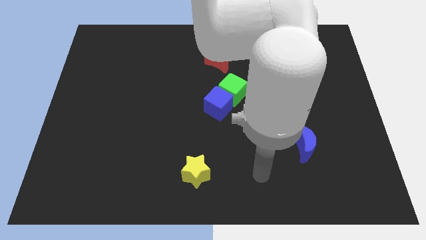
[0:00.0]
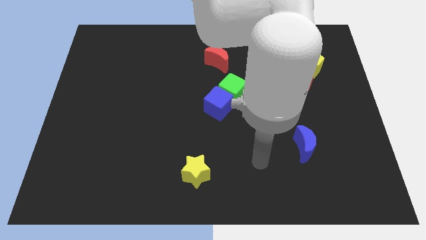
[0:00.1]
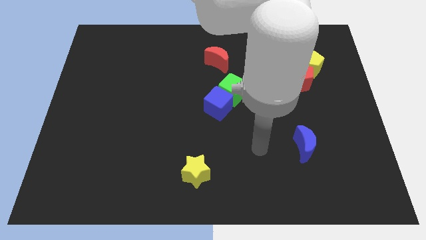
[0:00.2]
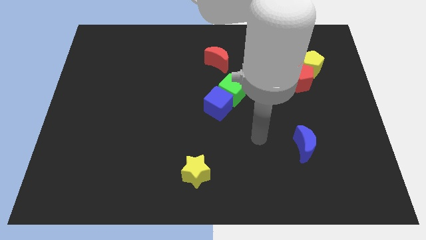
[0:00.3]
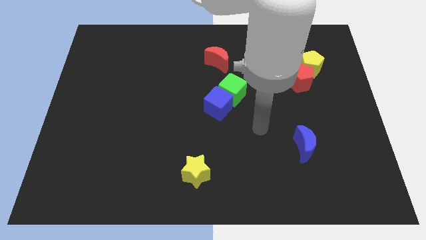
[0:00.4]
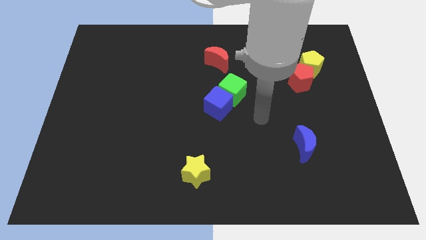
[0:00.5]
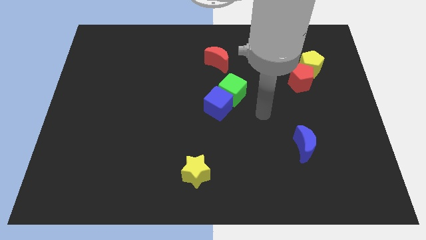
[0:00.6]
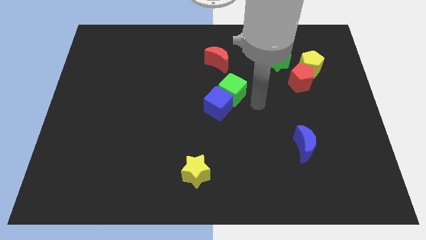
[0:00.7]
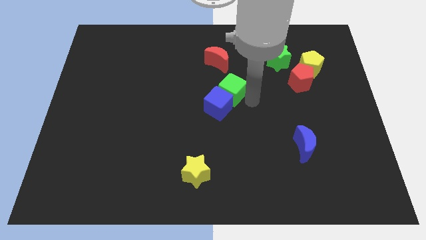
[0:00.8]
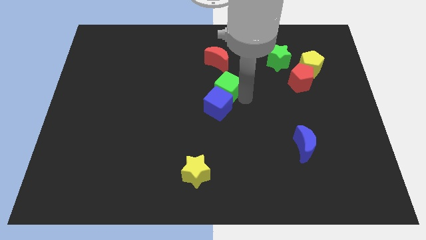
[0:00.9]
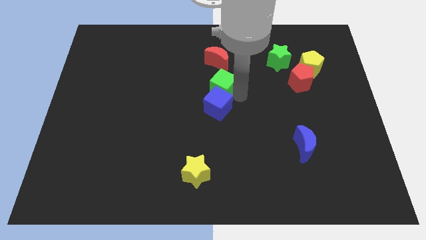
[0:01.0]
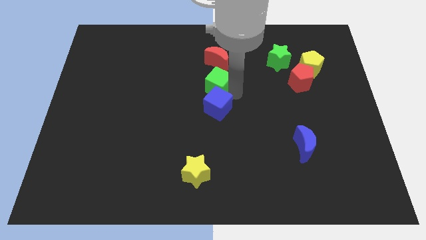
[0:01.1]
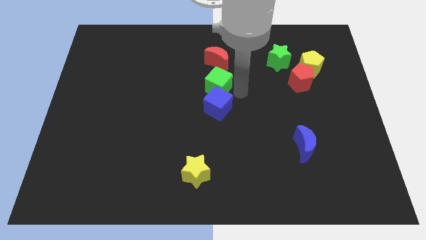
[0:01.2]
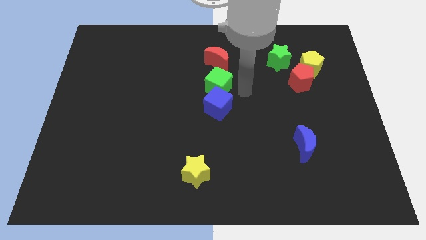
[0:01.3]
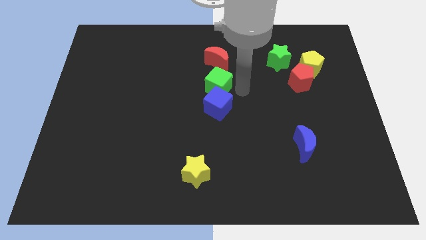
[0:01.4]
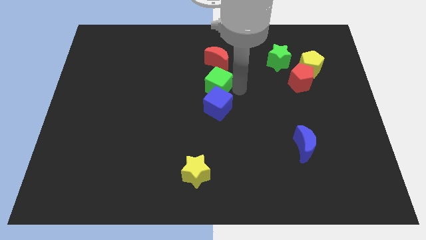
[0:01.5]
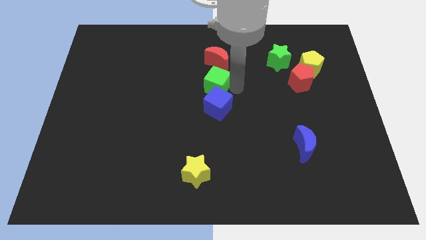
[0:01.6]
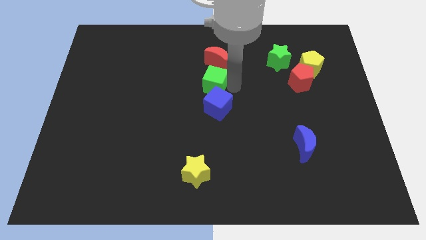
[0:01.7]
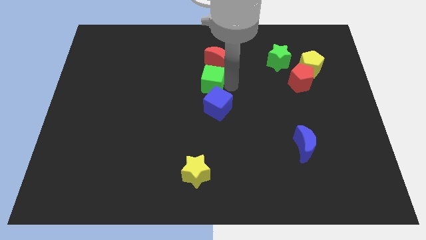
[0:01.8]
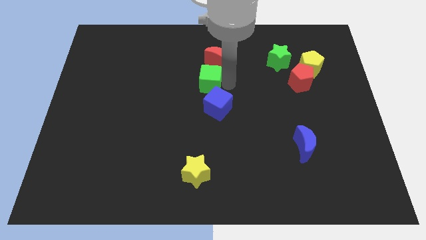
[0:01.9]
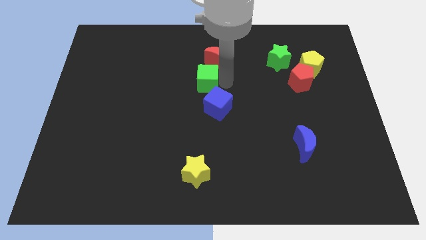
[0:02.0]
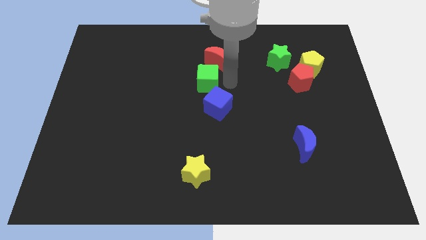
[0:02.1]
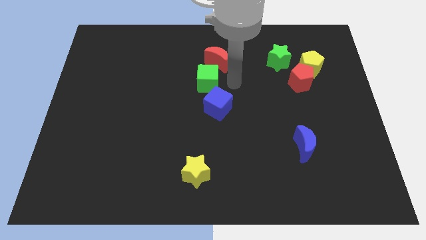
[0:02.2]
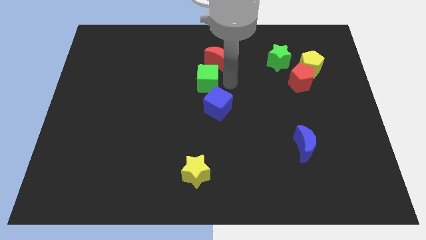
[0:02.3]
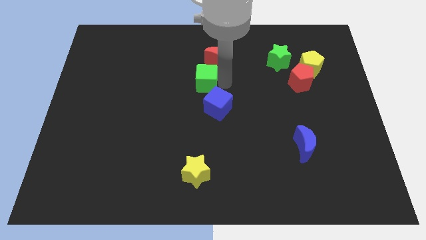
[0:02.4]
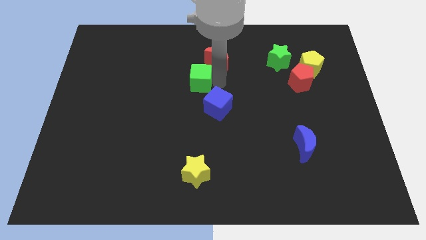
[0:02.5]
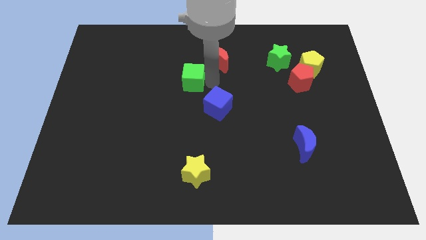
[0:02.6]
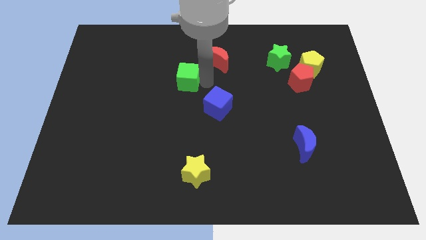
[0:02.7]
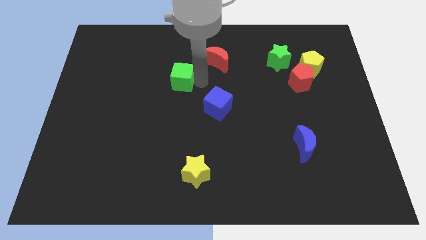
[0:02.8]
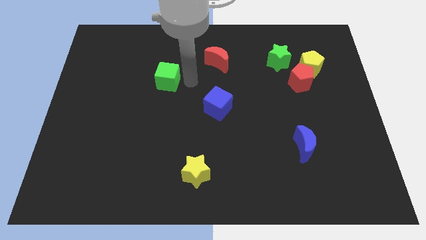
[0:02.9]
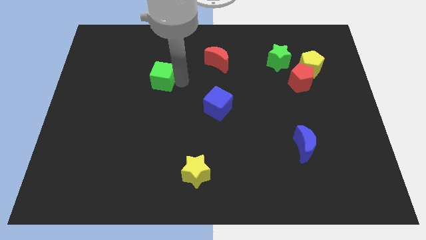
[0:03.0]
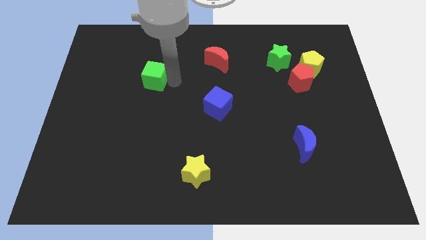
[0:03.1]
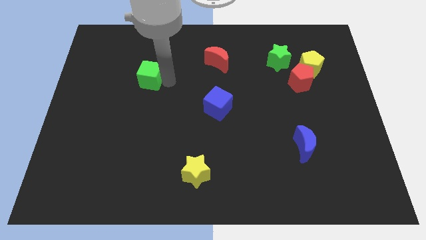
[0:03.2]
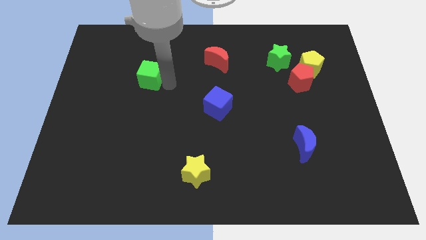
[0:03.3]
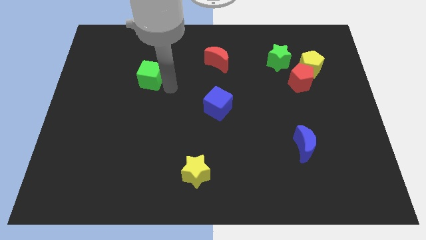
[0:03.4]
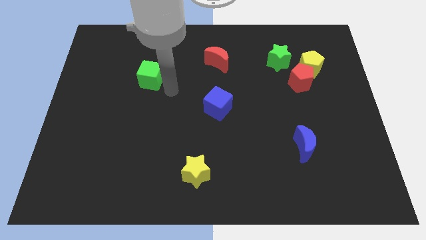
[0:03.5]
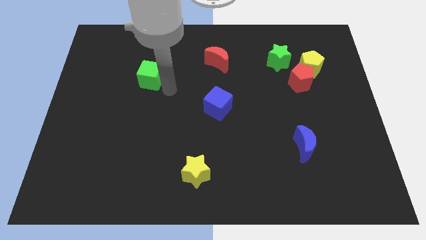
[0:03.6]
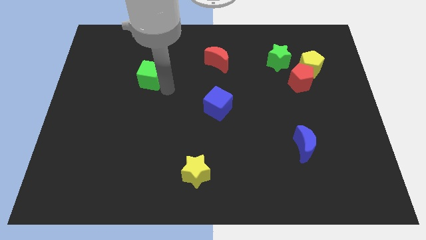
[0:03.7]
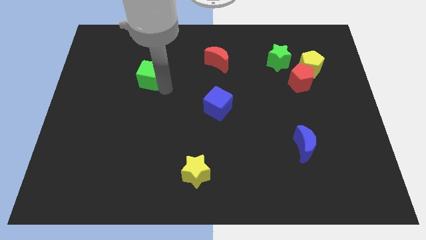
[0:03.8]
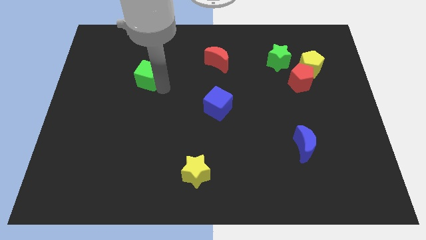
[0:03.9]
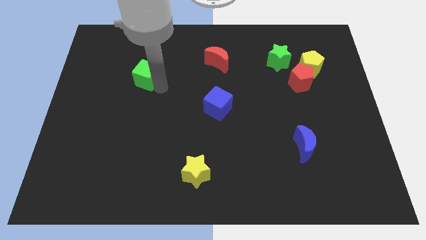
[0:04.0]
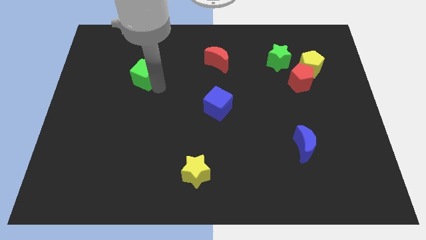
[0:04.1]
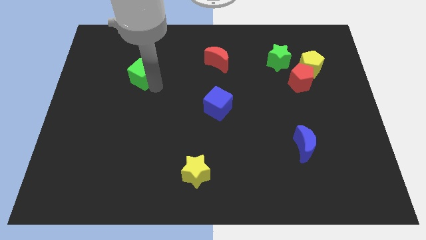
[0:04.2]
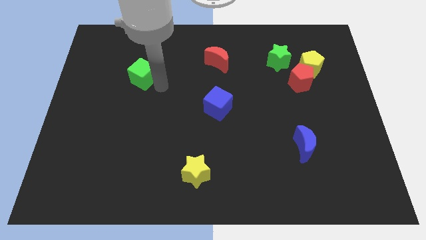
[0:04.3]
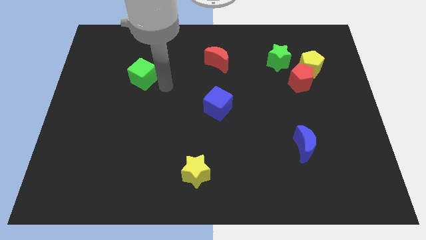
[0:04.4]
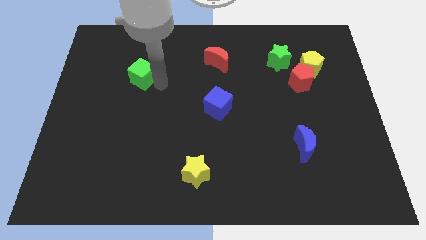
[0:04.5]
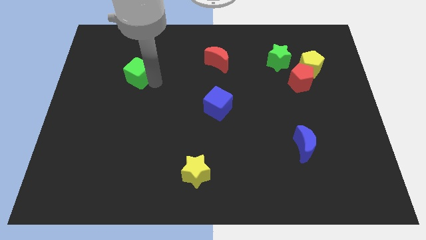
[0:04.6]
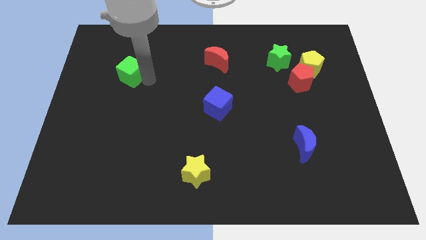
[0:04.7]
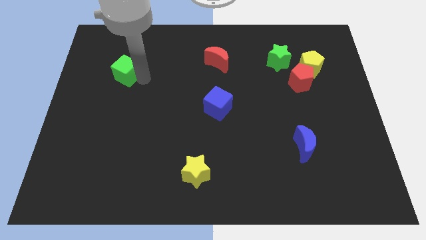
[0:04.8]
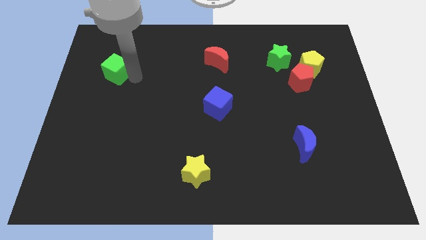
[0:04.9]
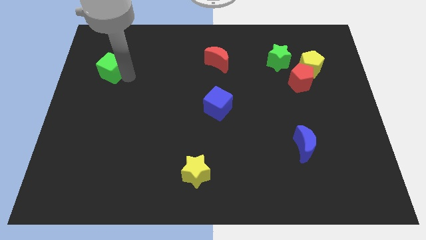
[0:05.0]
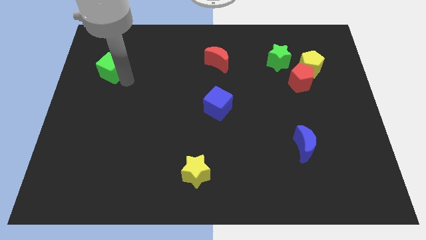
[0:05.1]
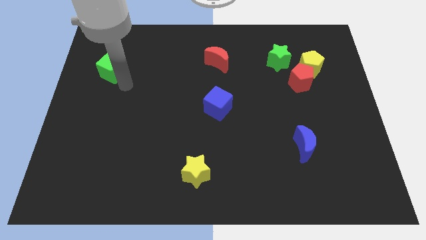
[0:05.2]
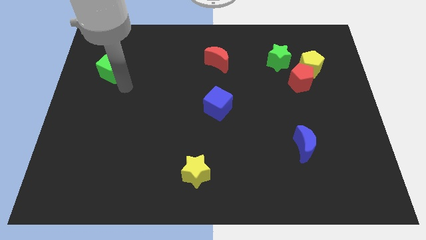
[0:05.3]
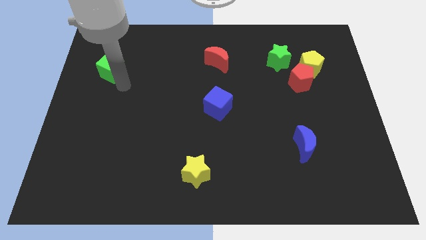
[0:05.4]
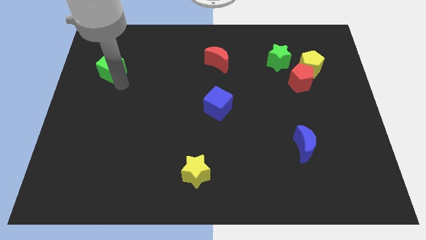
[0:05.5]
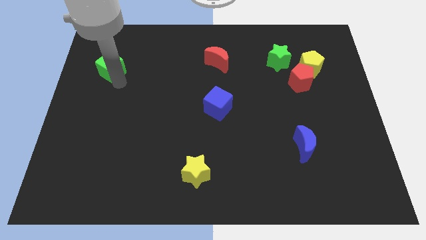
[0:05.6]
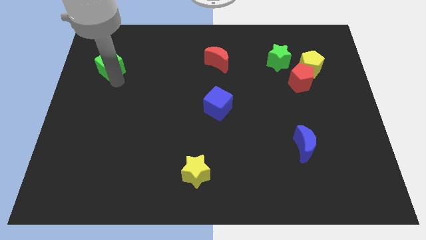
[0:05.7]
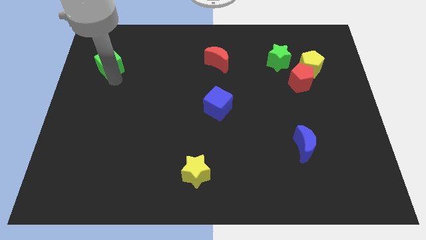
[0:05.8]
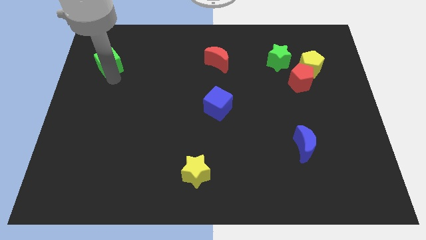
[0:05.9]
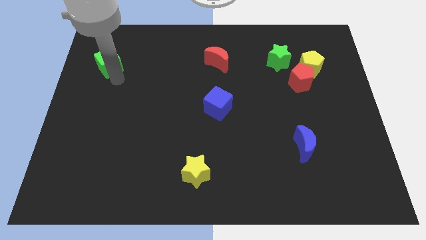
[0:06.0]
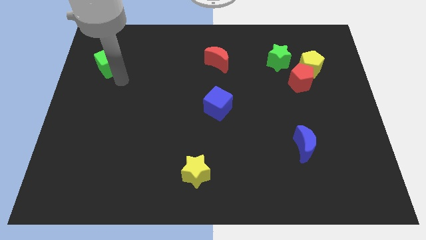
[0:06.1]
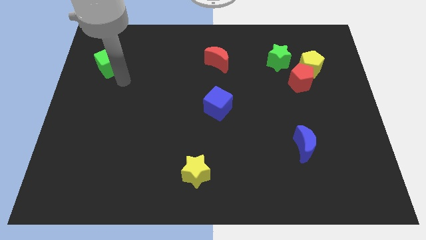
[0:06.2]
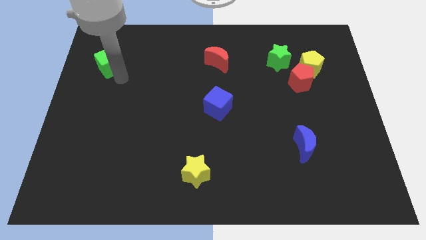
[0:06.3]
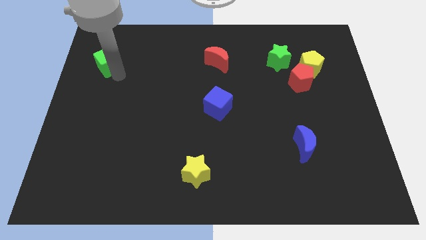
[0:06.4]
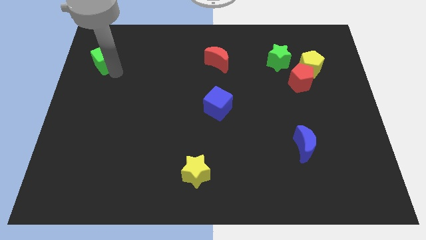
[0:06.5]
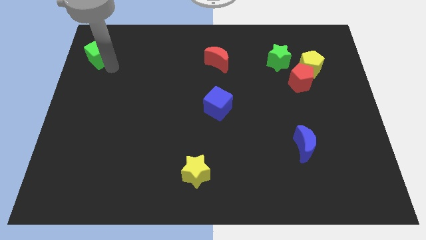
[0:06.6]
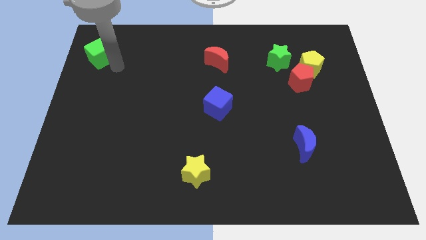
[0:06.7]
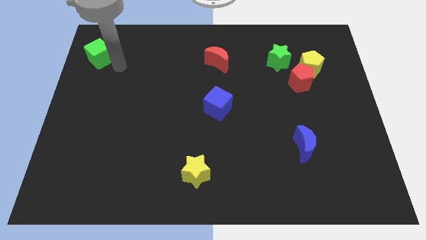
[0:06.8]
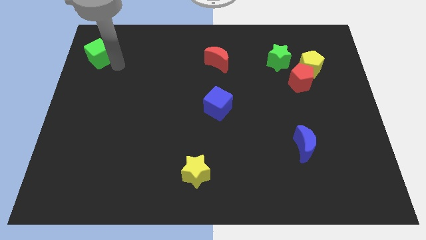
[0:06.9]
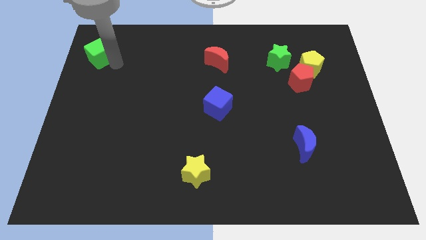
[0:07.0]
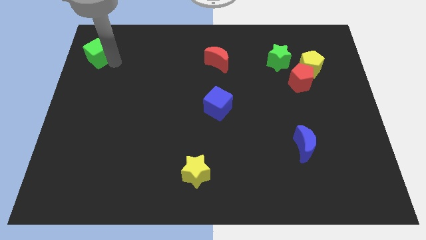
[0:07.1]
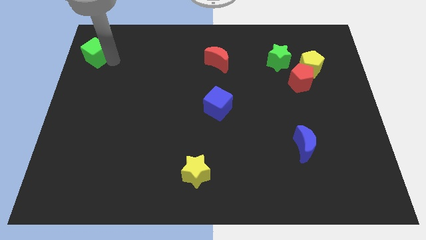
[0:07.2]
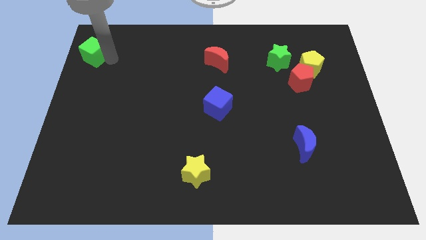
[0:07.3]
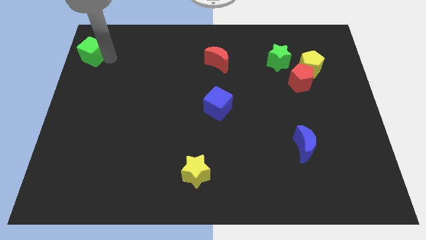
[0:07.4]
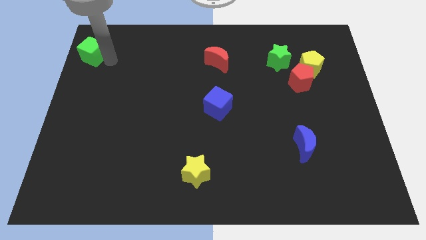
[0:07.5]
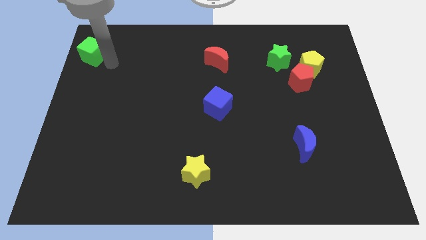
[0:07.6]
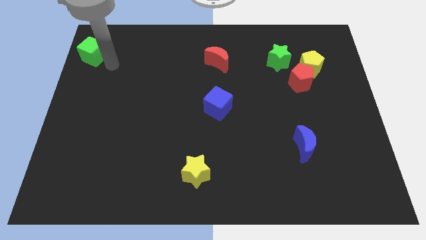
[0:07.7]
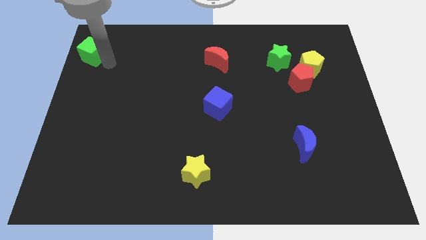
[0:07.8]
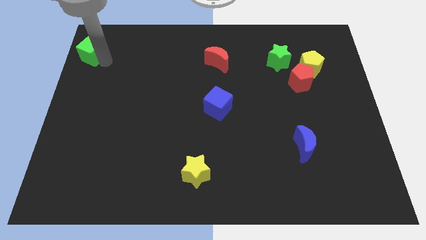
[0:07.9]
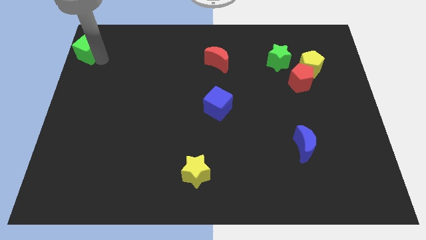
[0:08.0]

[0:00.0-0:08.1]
put the green cube to the top left
